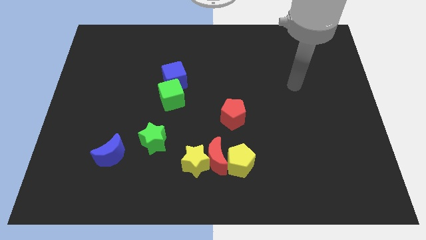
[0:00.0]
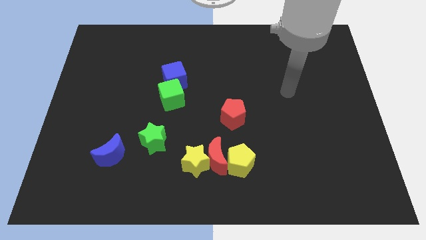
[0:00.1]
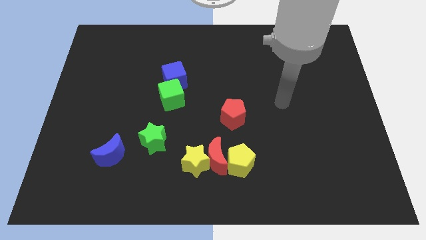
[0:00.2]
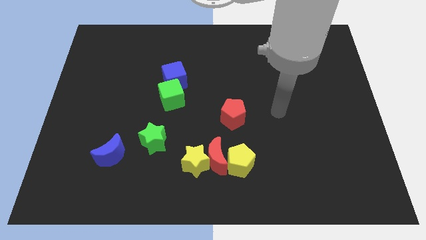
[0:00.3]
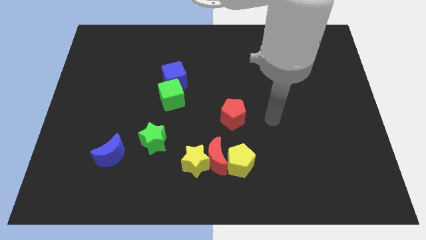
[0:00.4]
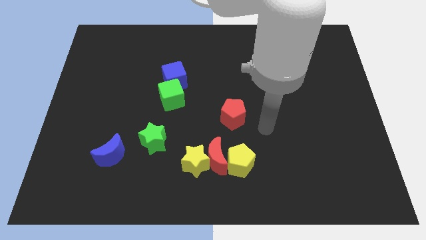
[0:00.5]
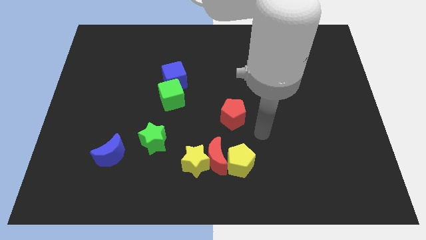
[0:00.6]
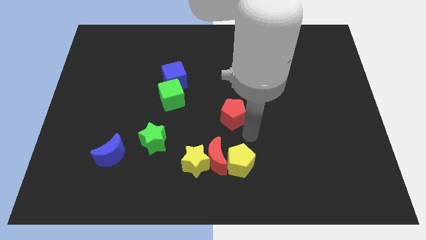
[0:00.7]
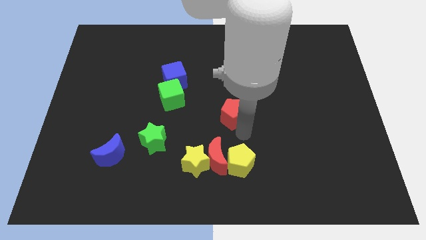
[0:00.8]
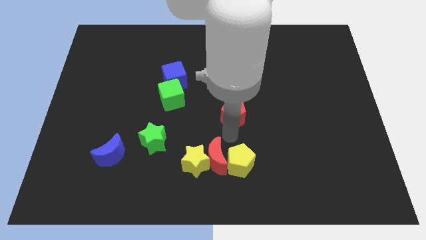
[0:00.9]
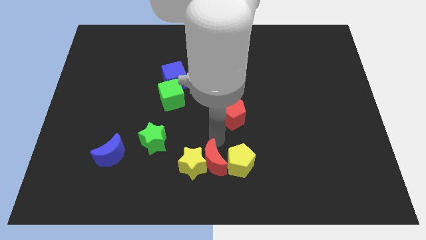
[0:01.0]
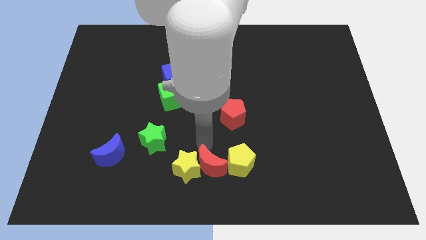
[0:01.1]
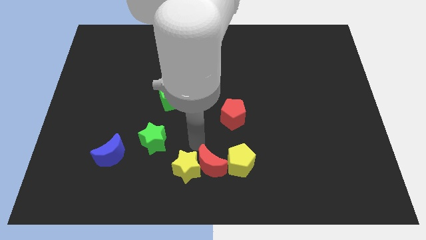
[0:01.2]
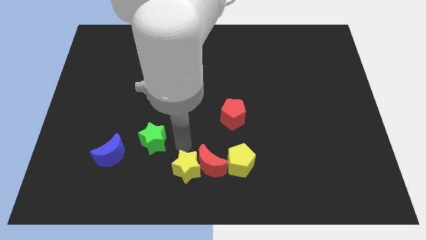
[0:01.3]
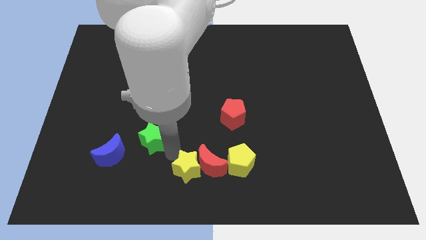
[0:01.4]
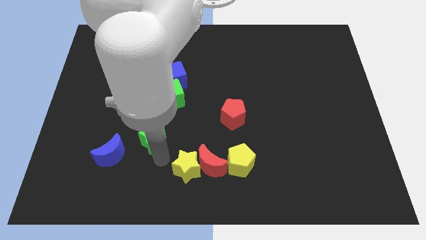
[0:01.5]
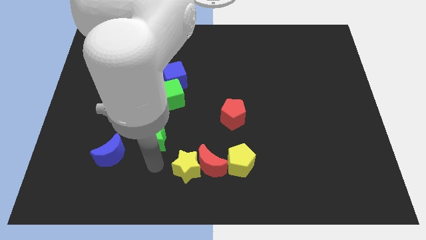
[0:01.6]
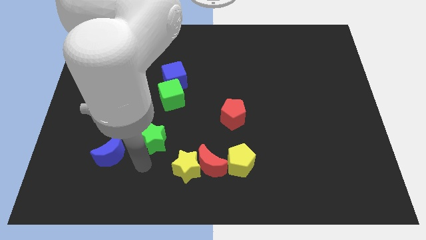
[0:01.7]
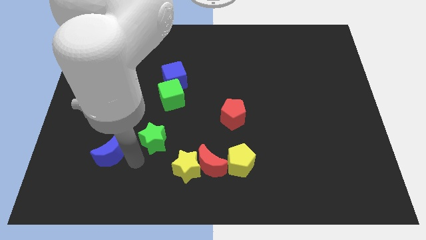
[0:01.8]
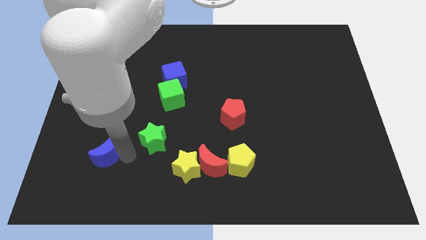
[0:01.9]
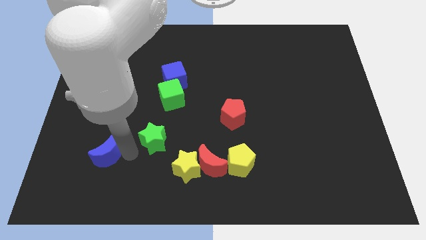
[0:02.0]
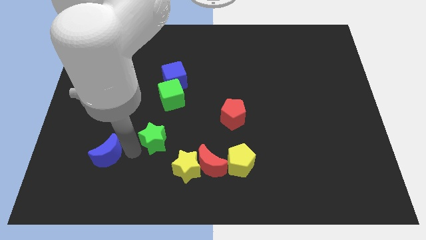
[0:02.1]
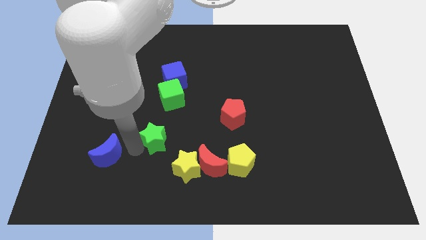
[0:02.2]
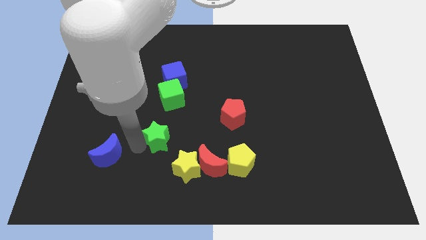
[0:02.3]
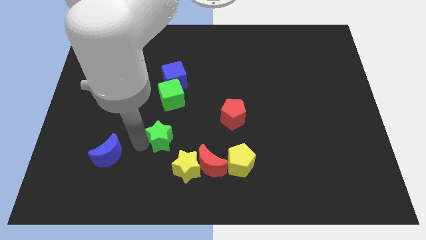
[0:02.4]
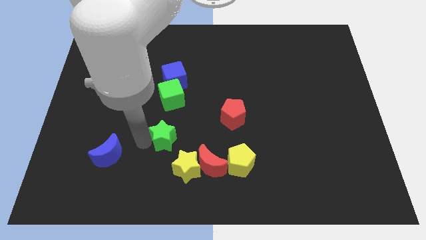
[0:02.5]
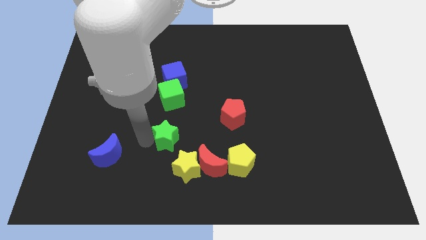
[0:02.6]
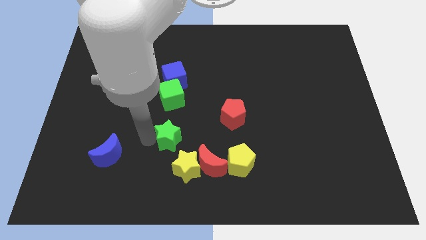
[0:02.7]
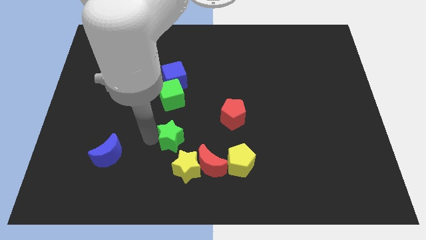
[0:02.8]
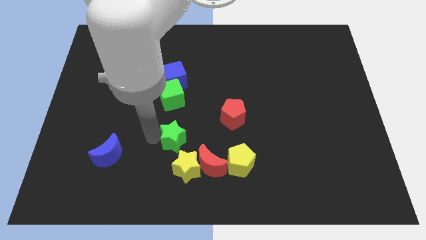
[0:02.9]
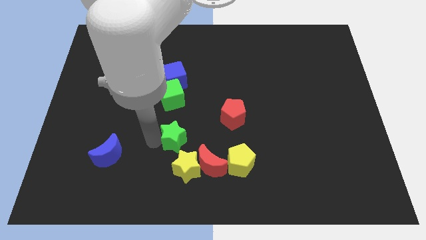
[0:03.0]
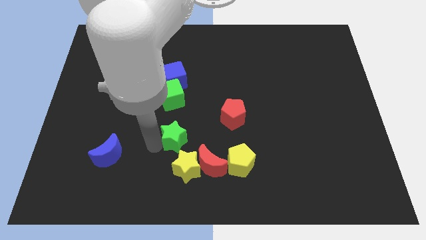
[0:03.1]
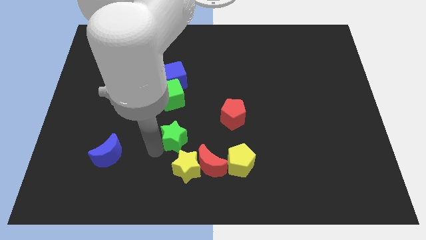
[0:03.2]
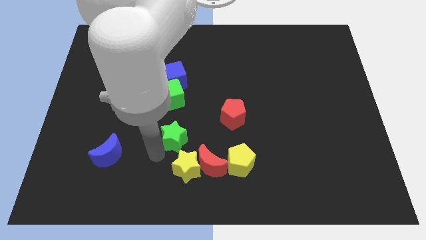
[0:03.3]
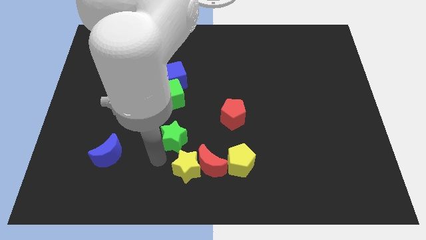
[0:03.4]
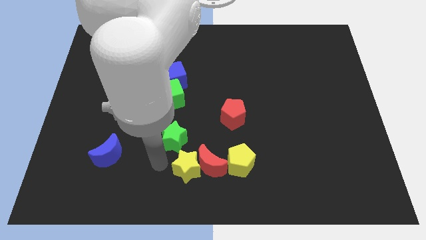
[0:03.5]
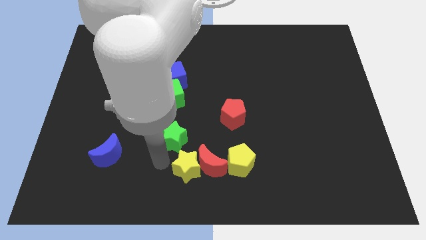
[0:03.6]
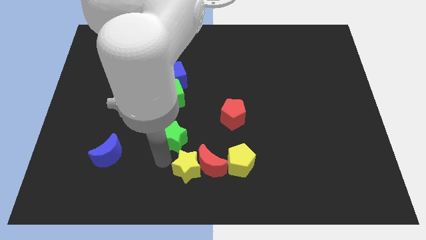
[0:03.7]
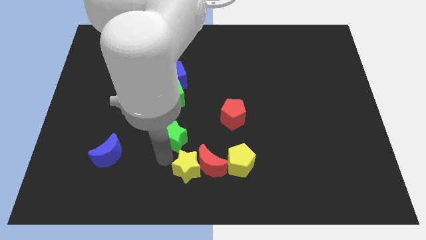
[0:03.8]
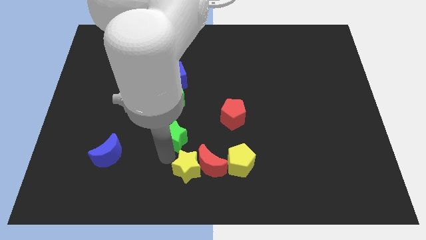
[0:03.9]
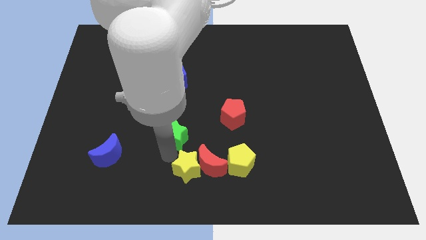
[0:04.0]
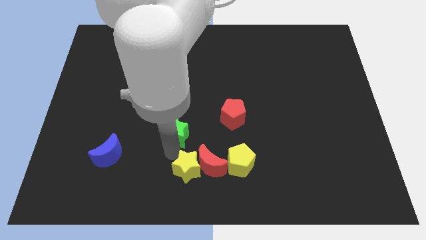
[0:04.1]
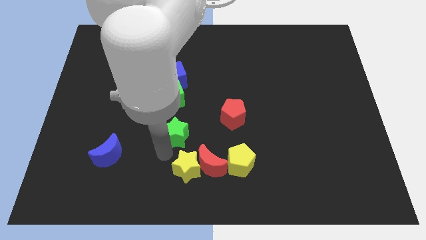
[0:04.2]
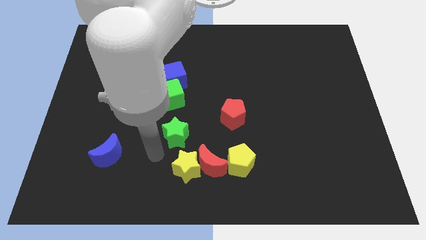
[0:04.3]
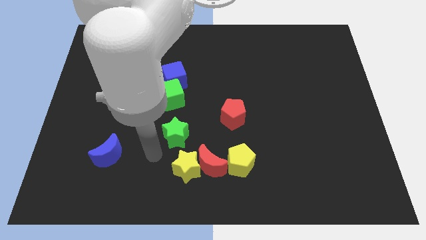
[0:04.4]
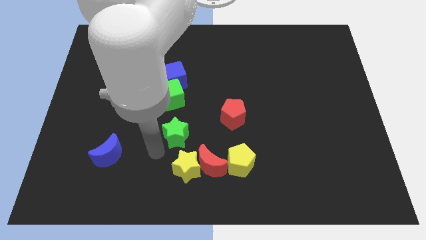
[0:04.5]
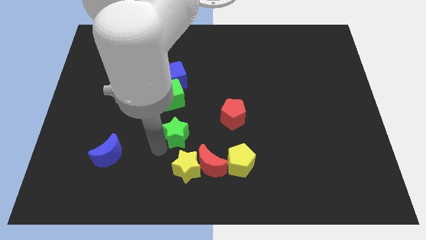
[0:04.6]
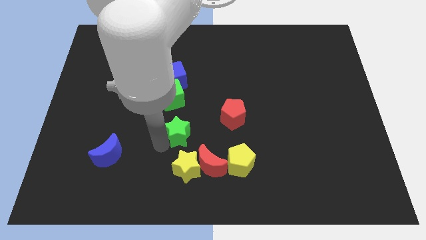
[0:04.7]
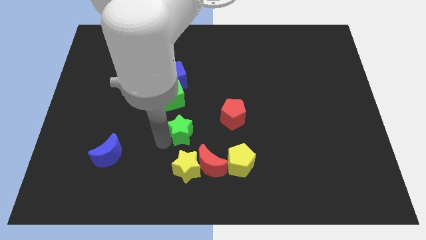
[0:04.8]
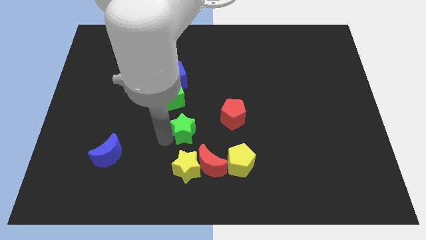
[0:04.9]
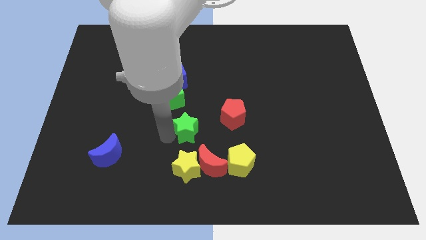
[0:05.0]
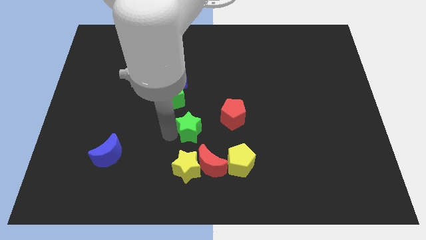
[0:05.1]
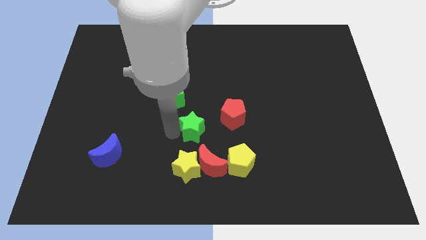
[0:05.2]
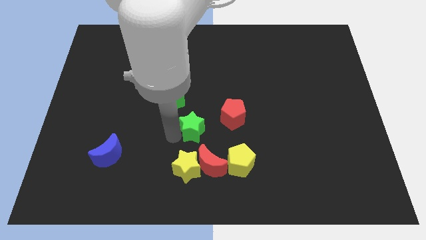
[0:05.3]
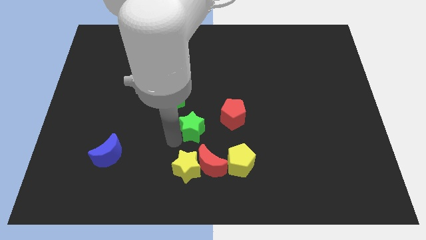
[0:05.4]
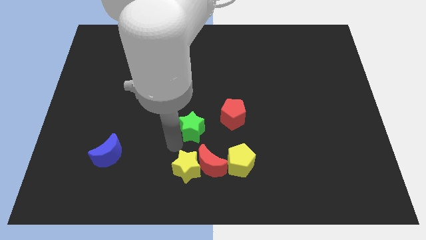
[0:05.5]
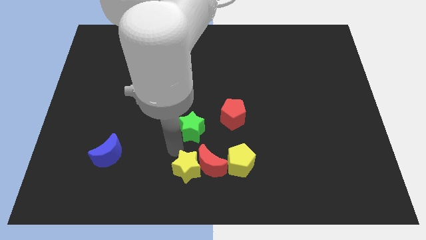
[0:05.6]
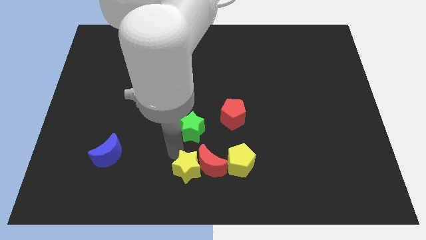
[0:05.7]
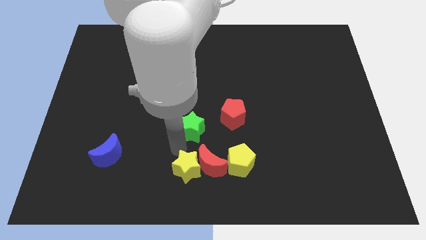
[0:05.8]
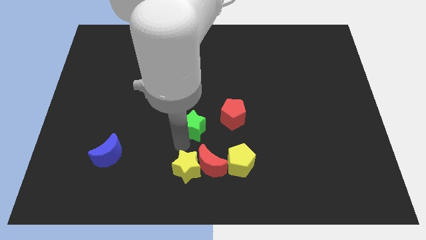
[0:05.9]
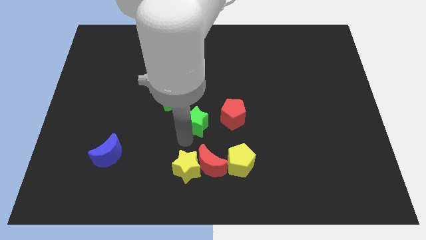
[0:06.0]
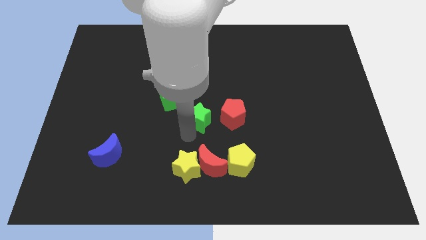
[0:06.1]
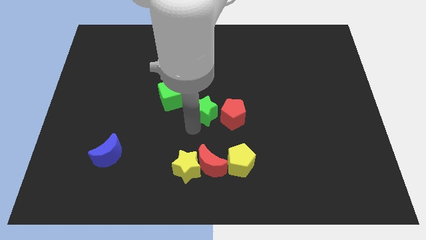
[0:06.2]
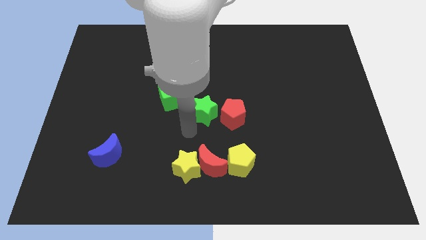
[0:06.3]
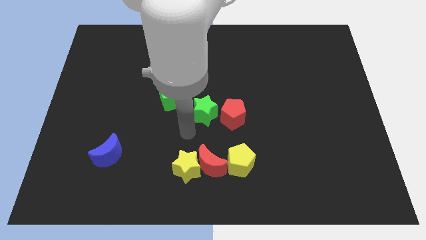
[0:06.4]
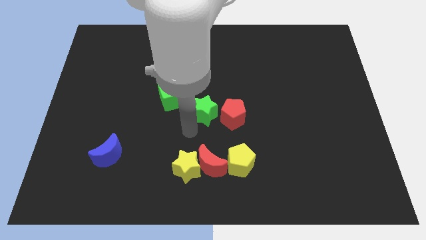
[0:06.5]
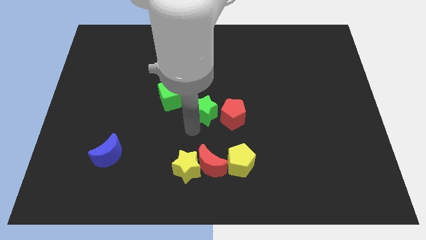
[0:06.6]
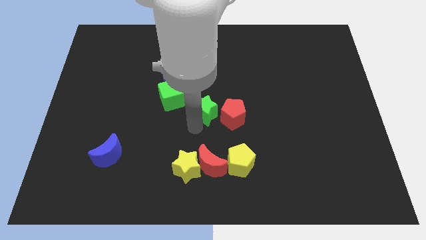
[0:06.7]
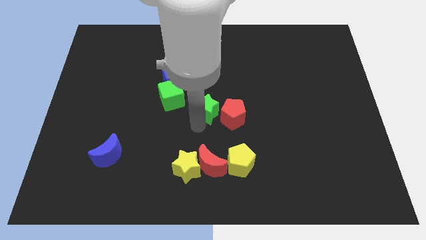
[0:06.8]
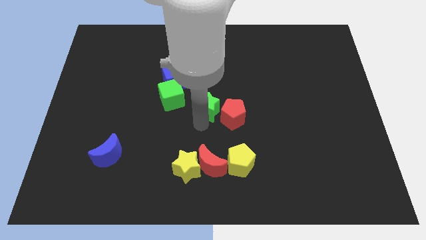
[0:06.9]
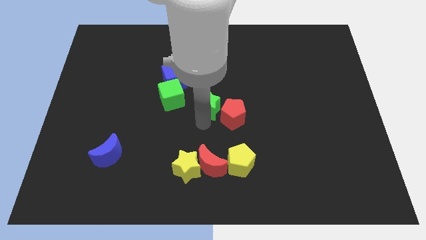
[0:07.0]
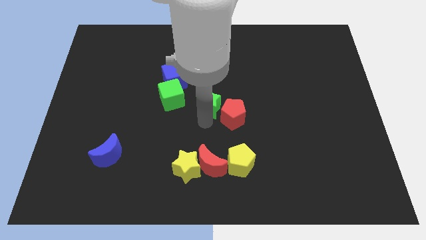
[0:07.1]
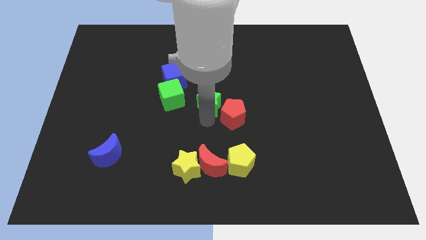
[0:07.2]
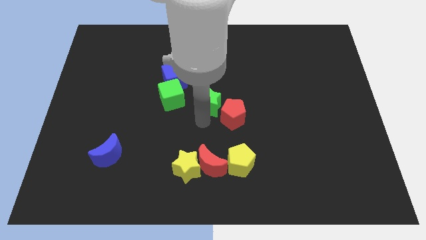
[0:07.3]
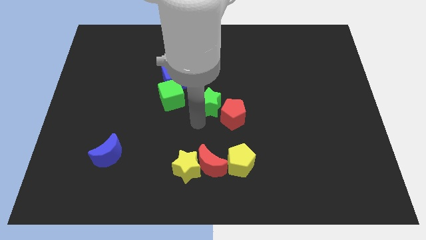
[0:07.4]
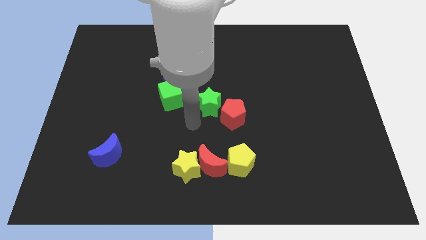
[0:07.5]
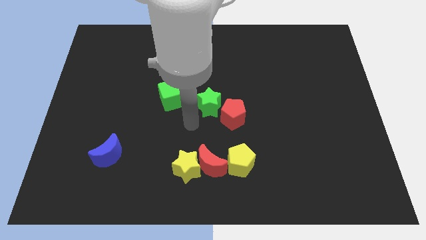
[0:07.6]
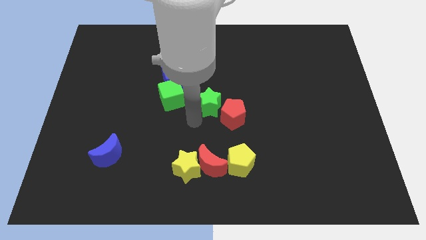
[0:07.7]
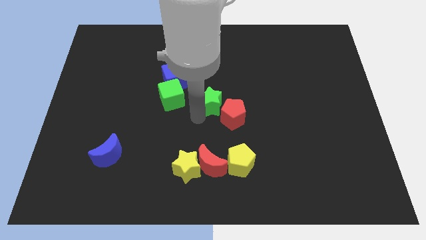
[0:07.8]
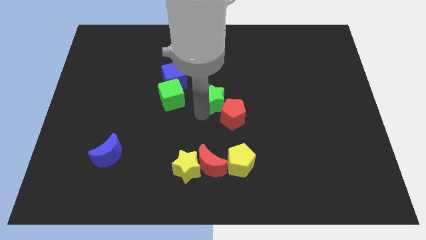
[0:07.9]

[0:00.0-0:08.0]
slide the green star to the top side of the red pentagon
